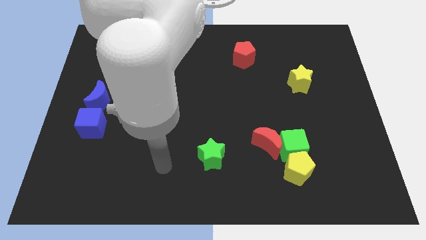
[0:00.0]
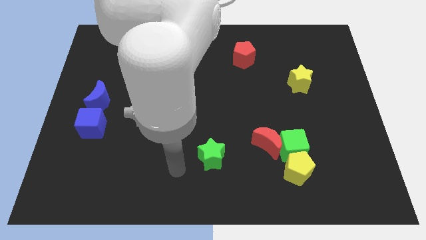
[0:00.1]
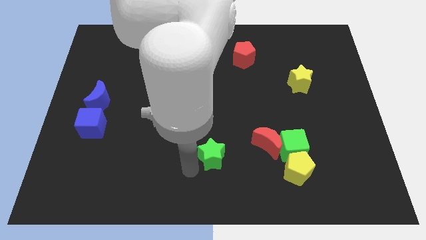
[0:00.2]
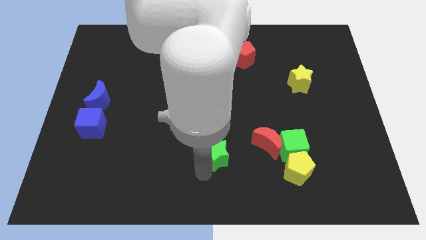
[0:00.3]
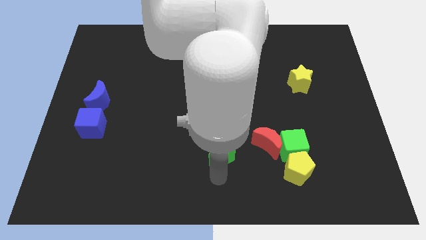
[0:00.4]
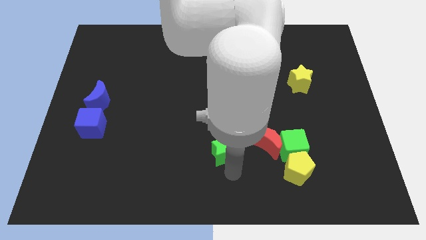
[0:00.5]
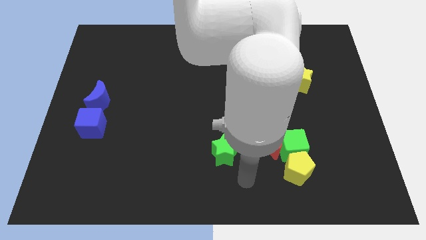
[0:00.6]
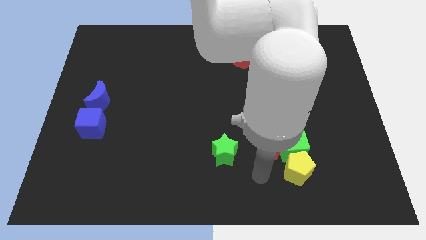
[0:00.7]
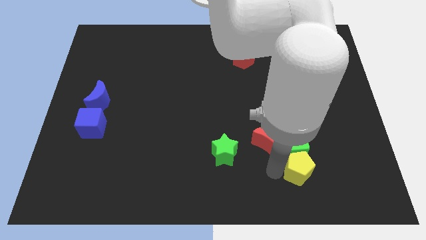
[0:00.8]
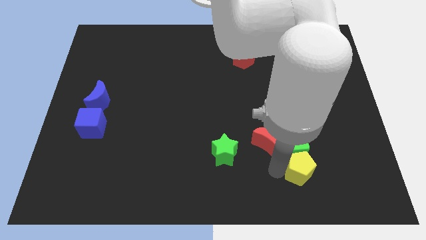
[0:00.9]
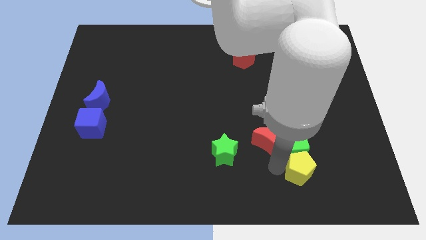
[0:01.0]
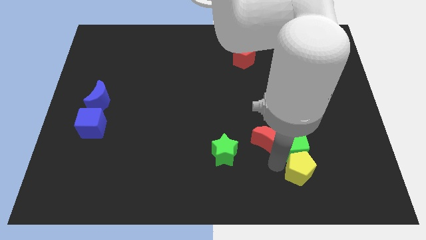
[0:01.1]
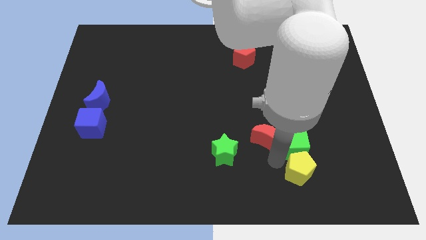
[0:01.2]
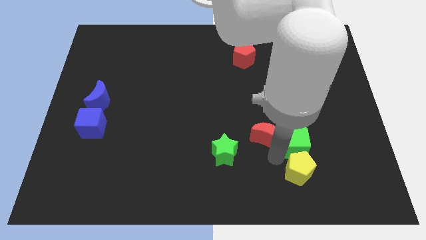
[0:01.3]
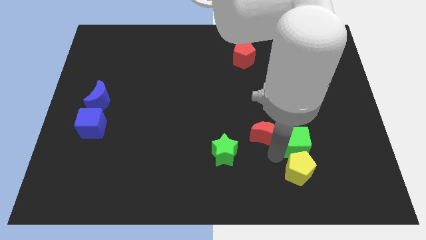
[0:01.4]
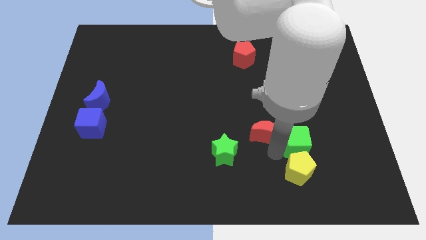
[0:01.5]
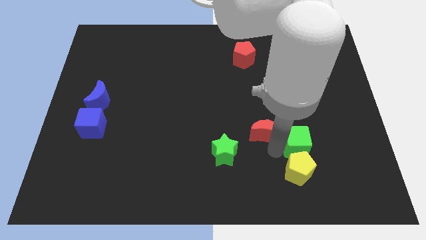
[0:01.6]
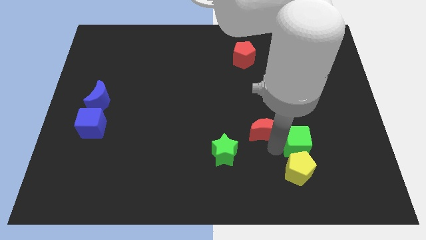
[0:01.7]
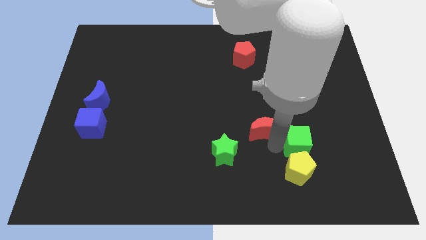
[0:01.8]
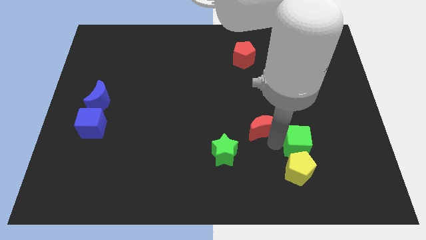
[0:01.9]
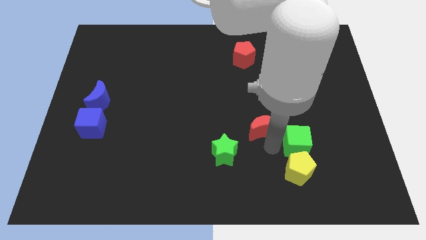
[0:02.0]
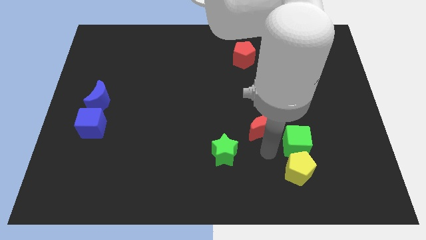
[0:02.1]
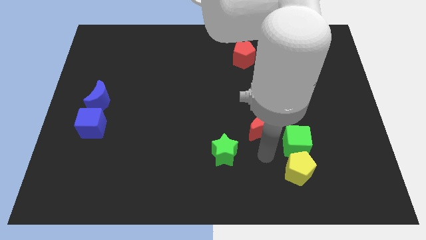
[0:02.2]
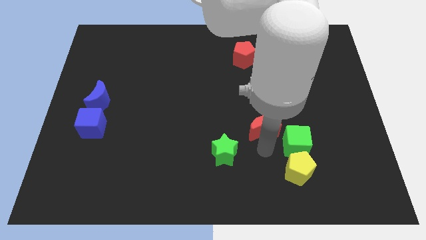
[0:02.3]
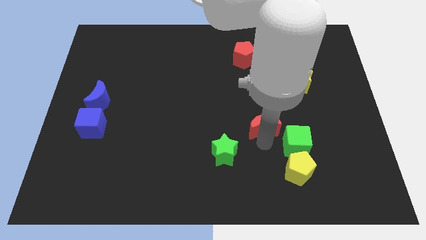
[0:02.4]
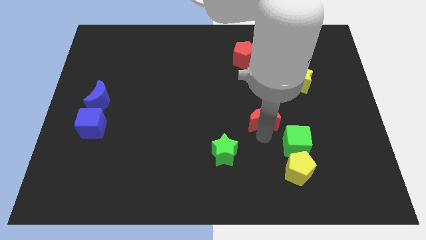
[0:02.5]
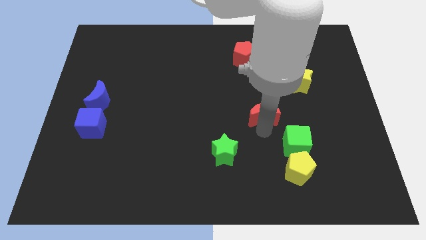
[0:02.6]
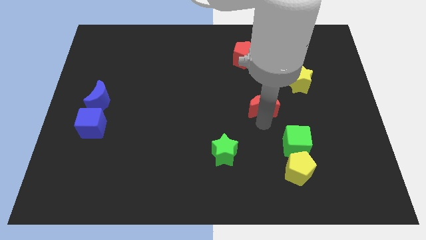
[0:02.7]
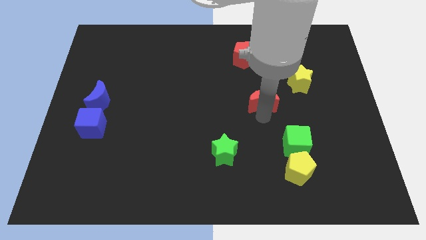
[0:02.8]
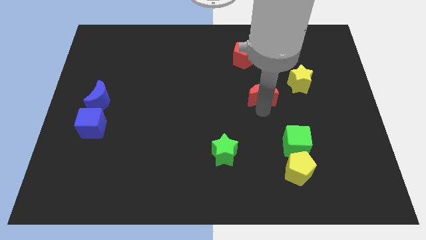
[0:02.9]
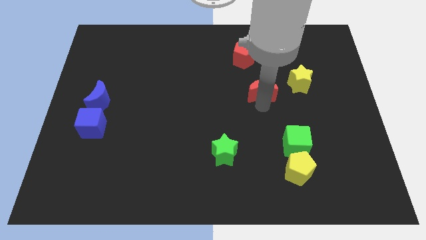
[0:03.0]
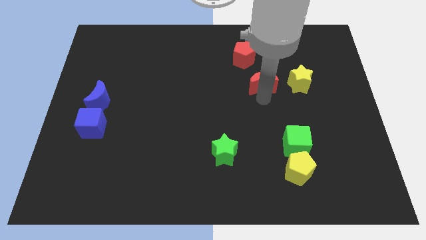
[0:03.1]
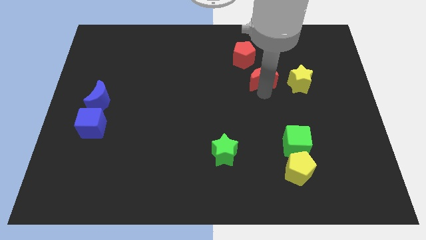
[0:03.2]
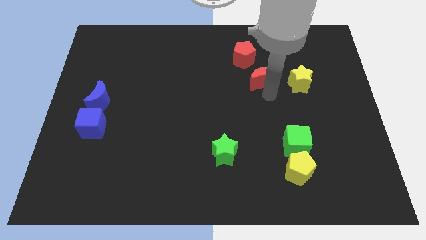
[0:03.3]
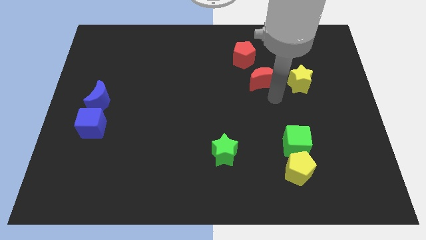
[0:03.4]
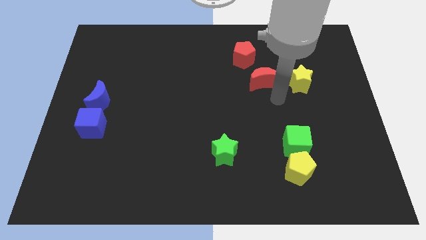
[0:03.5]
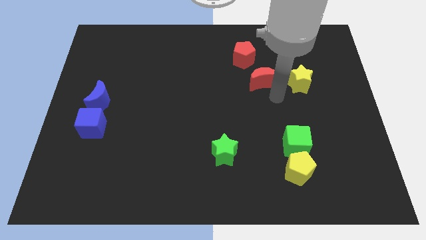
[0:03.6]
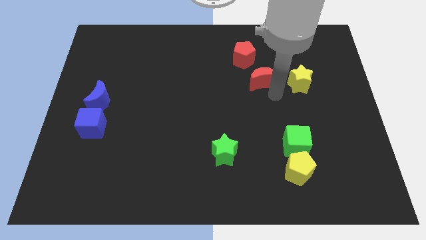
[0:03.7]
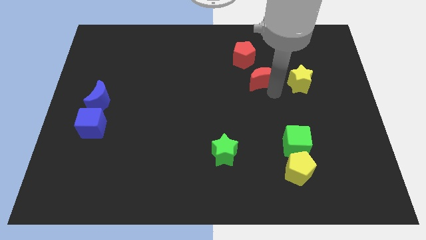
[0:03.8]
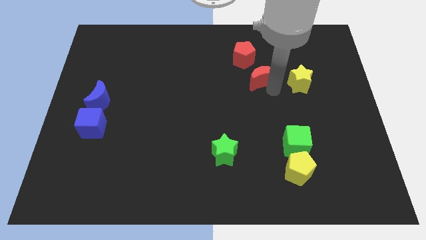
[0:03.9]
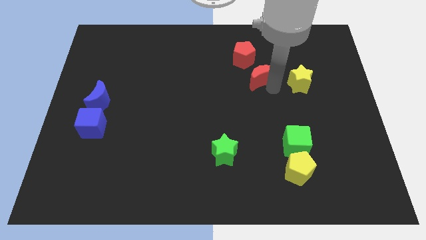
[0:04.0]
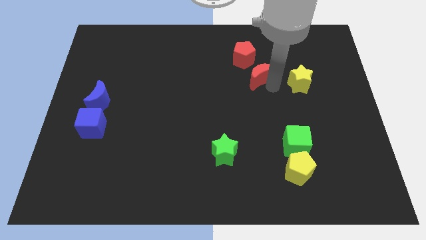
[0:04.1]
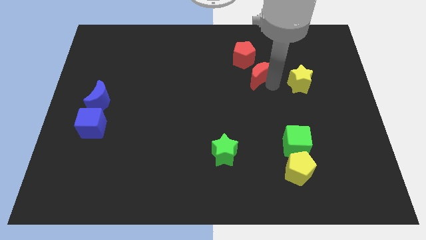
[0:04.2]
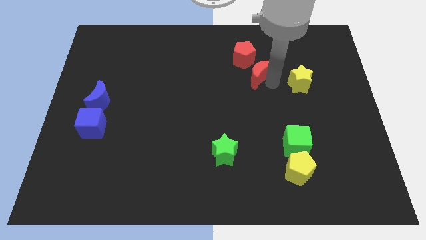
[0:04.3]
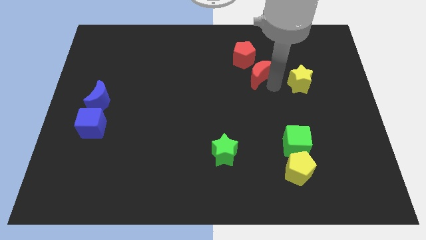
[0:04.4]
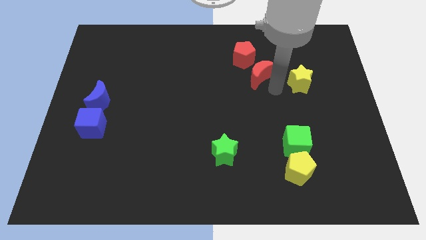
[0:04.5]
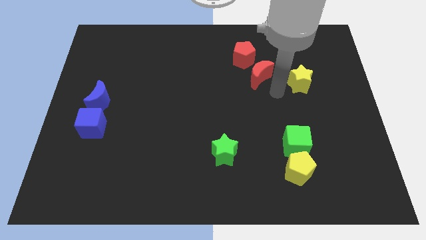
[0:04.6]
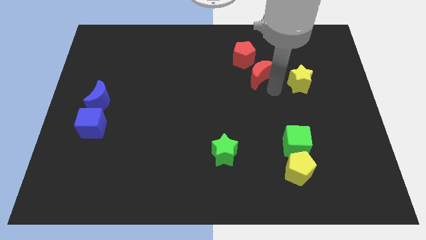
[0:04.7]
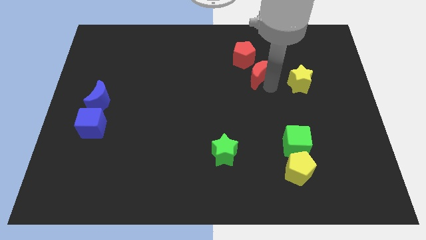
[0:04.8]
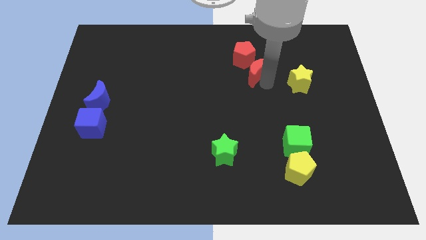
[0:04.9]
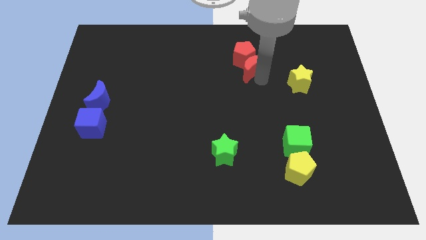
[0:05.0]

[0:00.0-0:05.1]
push the red moon to the red pentagon

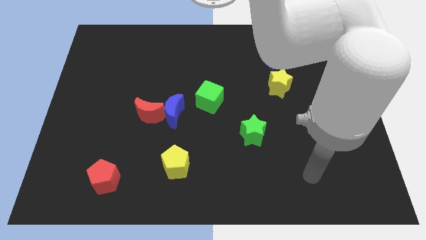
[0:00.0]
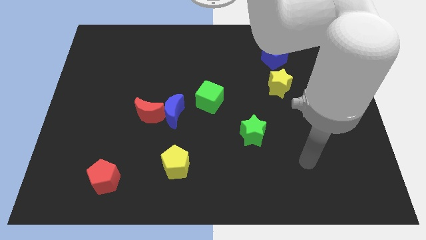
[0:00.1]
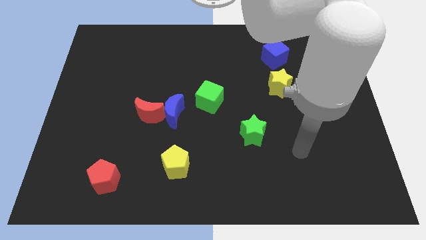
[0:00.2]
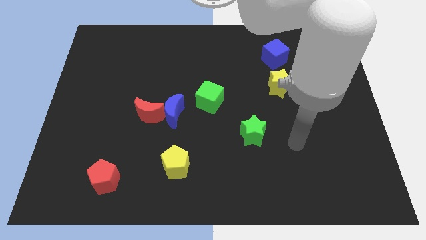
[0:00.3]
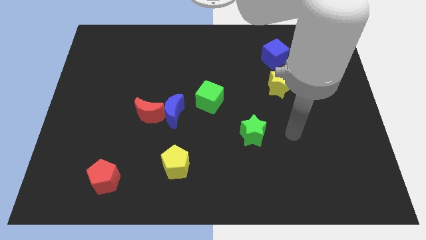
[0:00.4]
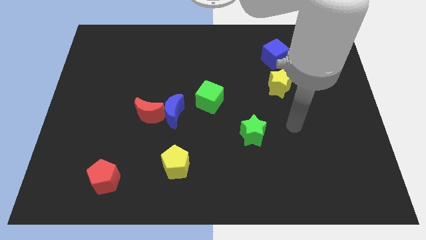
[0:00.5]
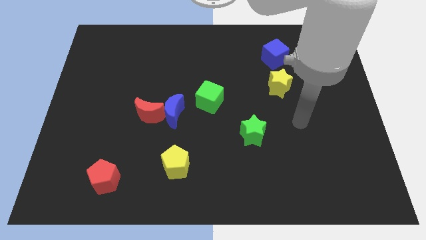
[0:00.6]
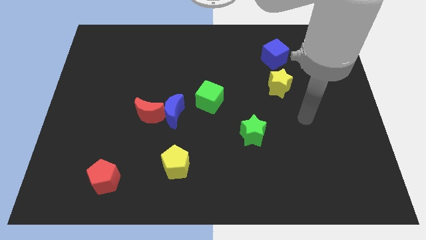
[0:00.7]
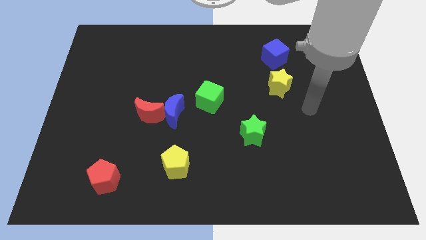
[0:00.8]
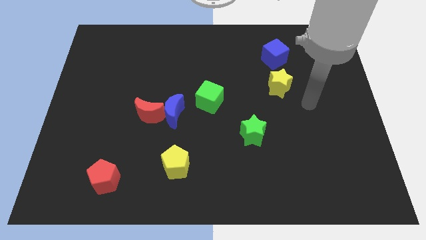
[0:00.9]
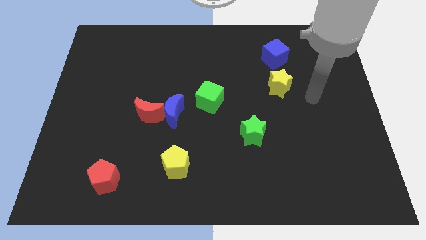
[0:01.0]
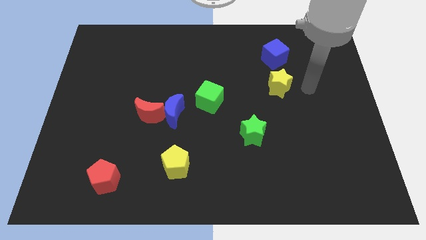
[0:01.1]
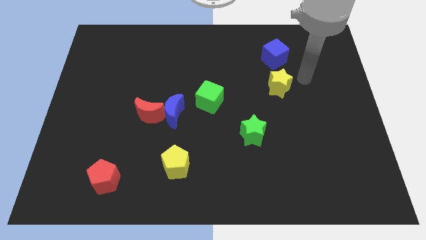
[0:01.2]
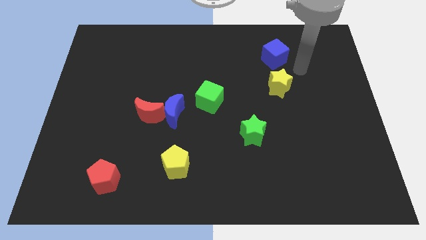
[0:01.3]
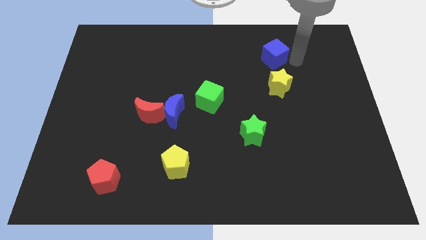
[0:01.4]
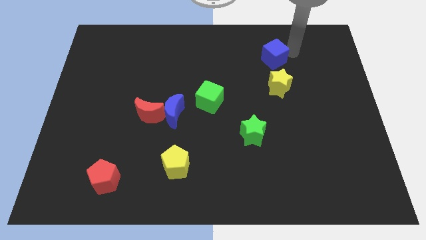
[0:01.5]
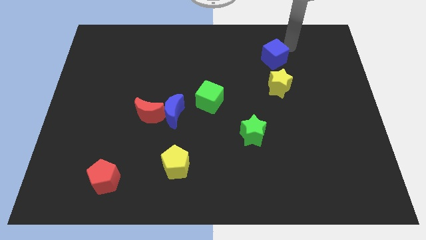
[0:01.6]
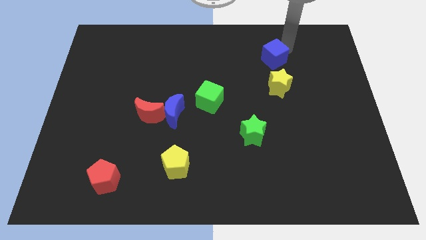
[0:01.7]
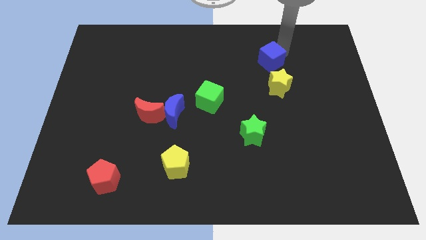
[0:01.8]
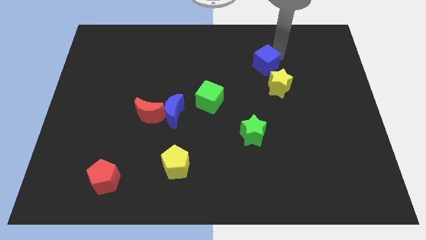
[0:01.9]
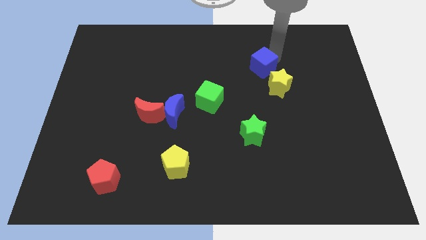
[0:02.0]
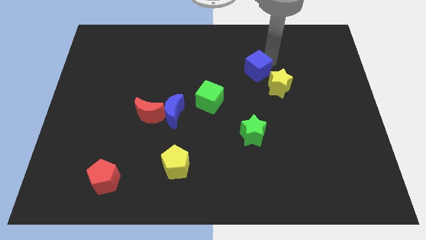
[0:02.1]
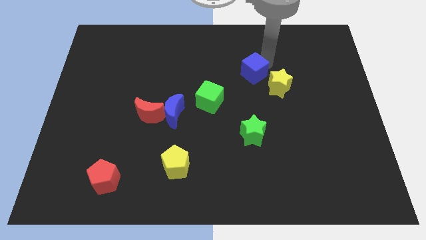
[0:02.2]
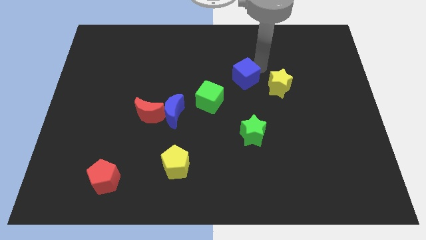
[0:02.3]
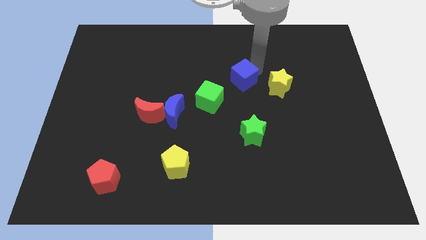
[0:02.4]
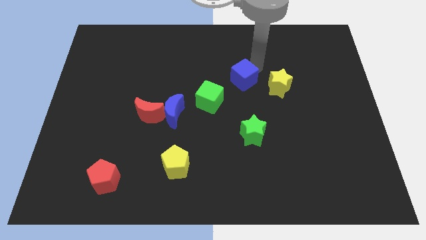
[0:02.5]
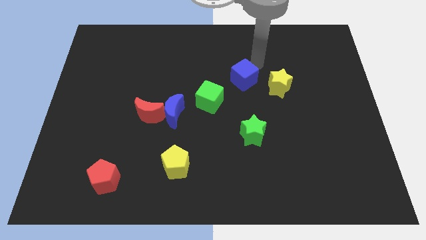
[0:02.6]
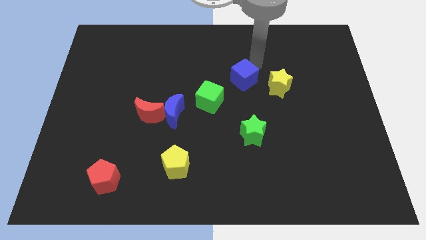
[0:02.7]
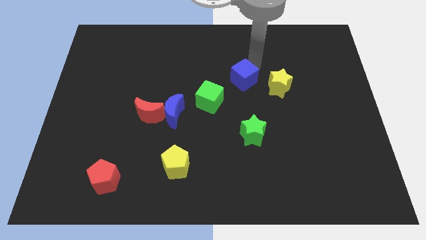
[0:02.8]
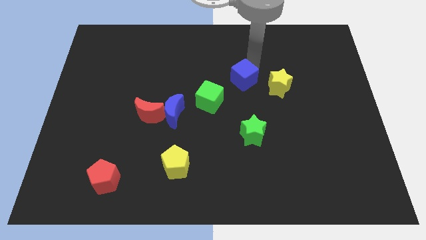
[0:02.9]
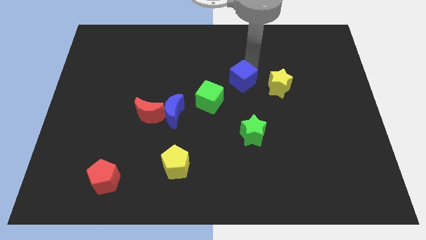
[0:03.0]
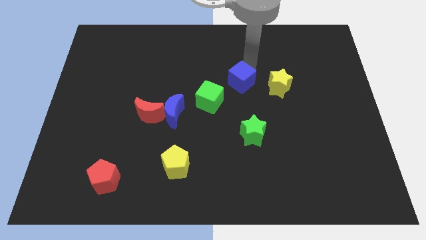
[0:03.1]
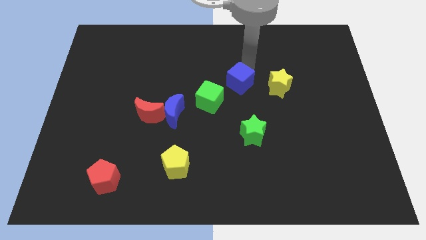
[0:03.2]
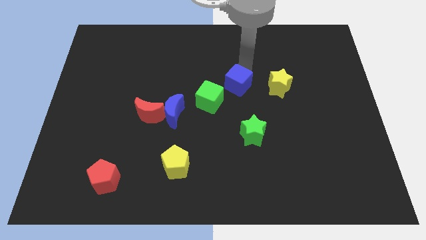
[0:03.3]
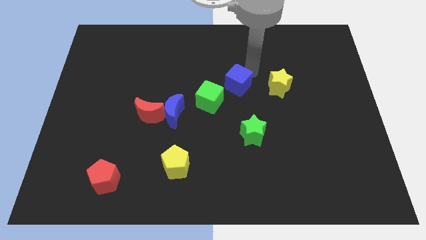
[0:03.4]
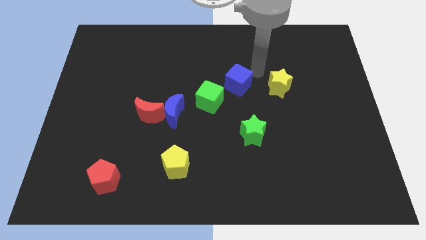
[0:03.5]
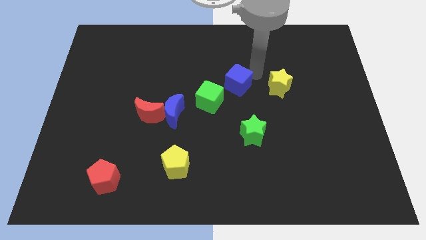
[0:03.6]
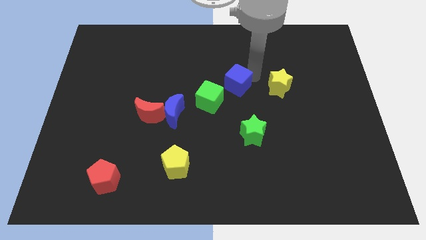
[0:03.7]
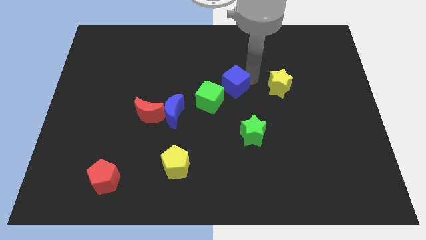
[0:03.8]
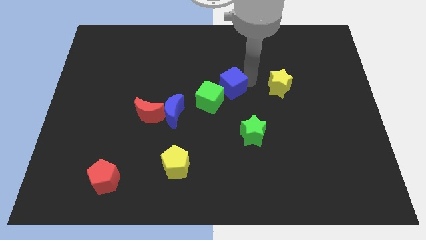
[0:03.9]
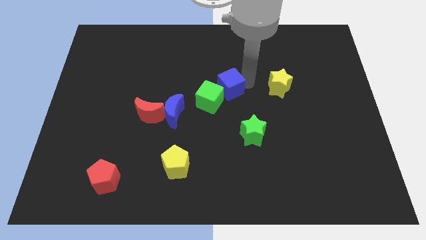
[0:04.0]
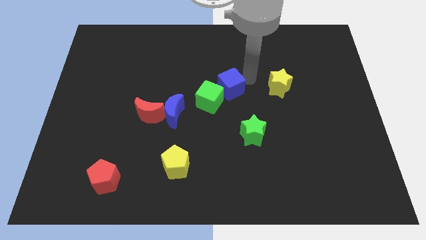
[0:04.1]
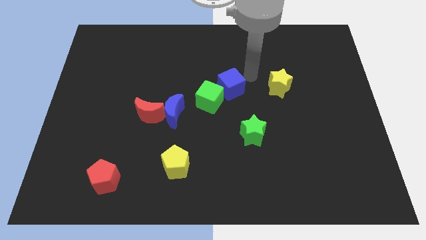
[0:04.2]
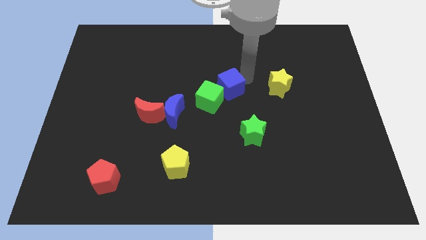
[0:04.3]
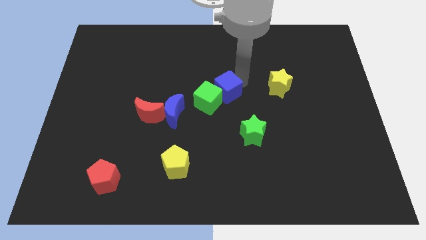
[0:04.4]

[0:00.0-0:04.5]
move the blue cube to the green cube
